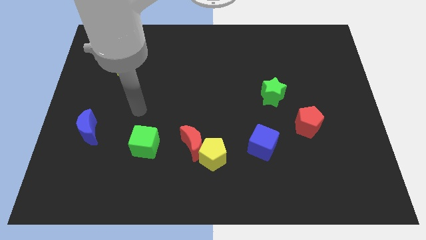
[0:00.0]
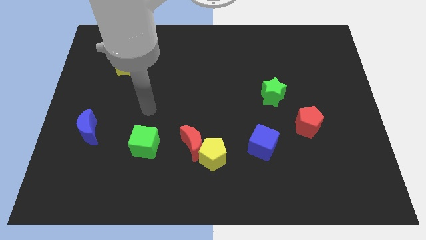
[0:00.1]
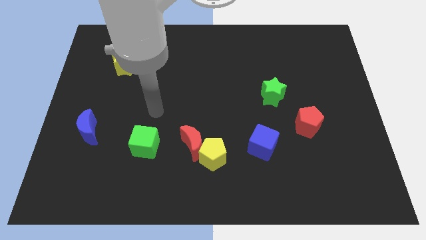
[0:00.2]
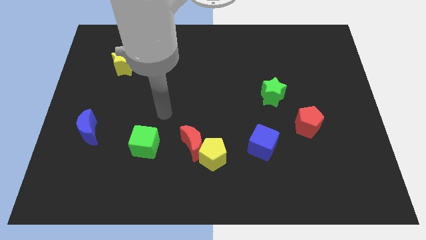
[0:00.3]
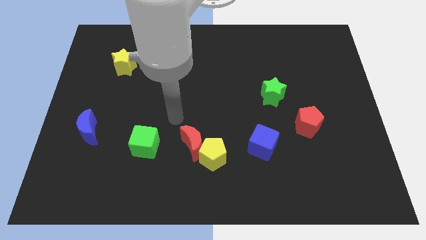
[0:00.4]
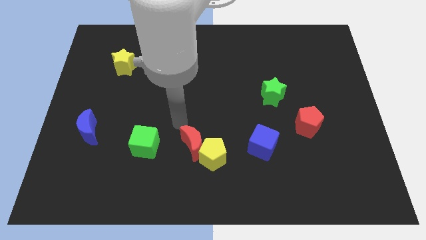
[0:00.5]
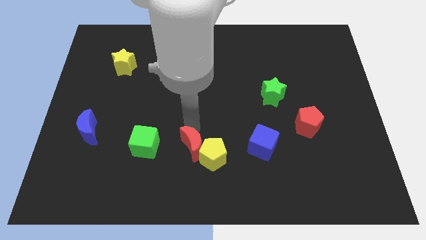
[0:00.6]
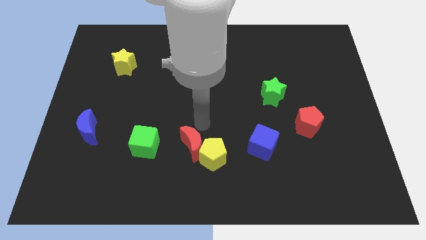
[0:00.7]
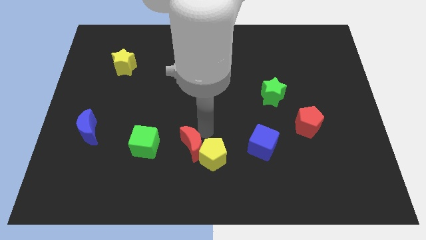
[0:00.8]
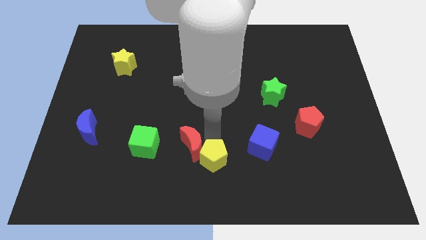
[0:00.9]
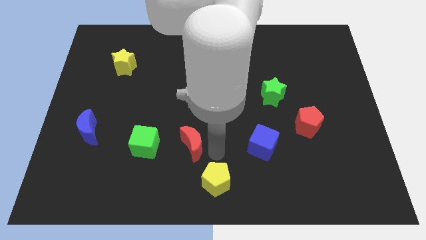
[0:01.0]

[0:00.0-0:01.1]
pull the red moon apart from the yellow pentagon

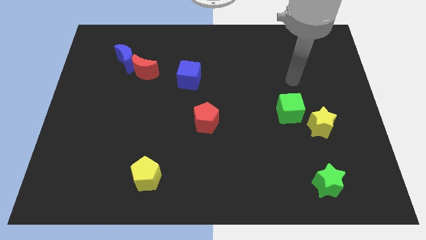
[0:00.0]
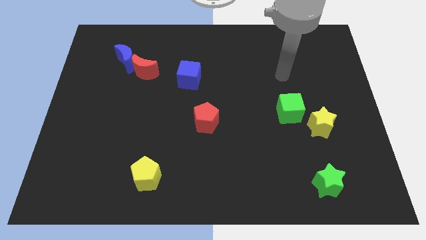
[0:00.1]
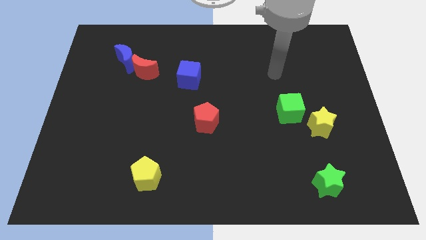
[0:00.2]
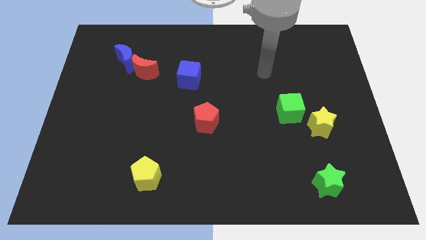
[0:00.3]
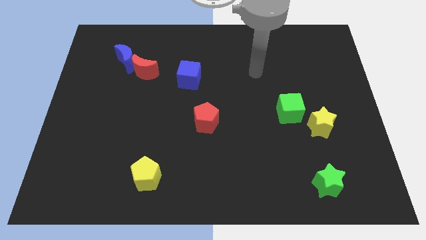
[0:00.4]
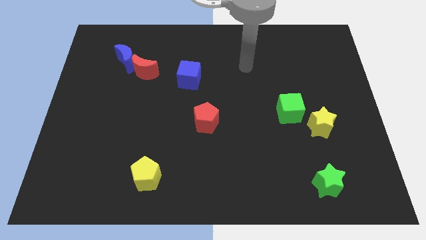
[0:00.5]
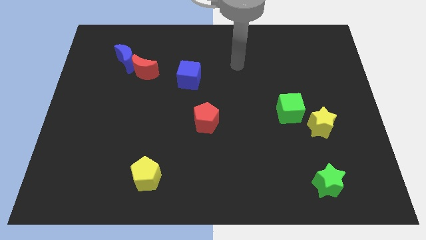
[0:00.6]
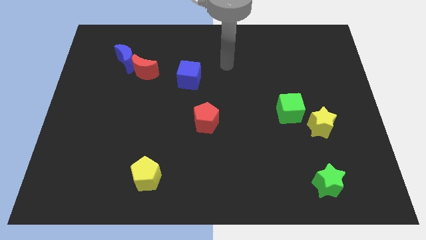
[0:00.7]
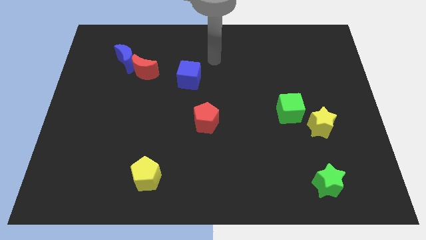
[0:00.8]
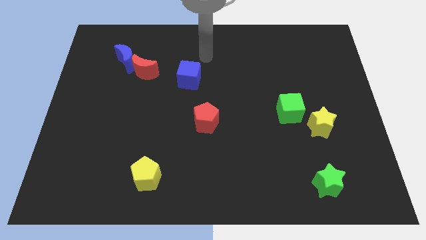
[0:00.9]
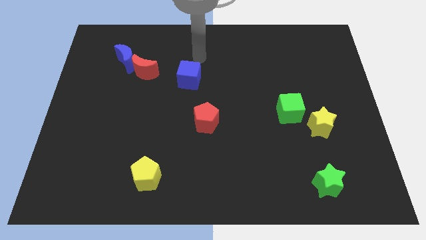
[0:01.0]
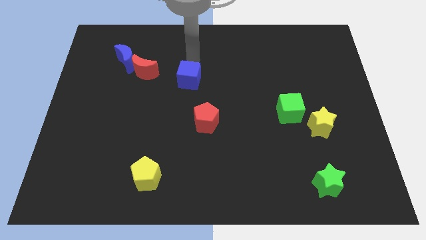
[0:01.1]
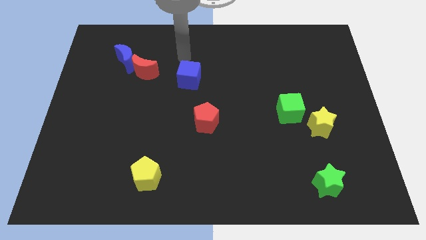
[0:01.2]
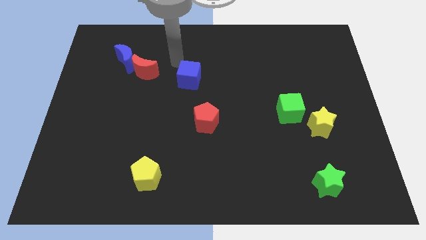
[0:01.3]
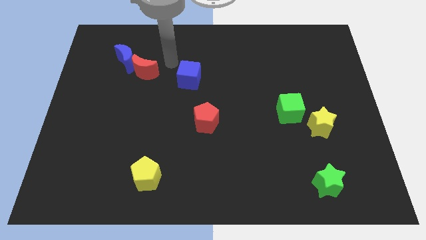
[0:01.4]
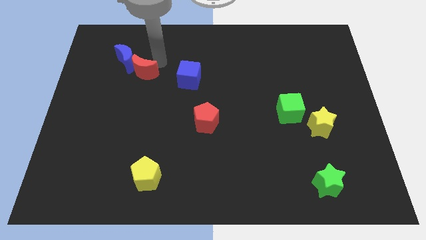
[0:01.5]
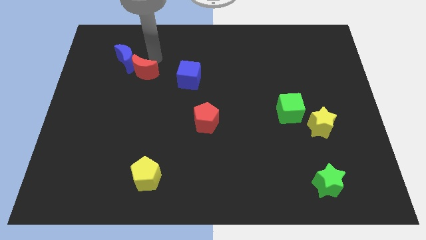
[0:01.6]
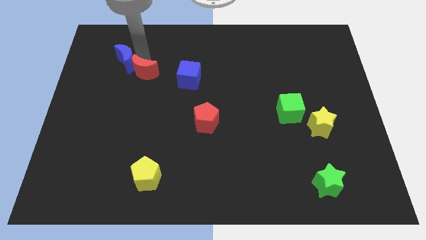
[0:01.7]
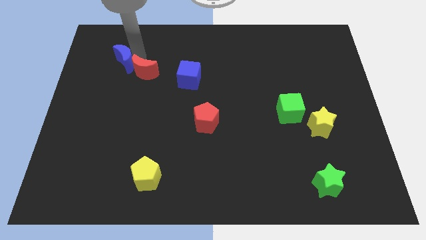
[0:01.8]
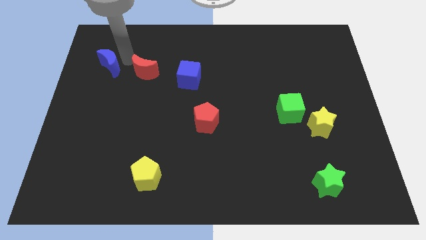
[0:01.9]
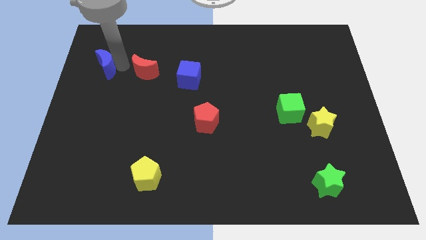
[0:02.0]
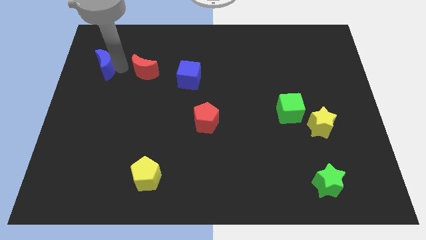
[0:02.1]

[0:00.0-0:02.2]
pull the red moon apart from the blue moon

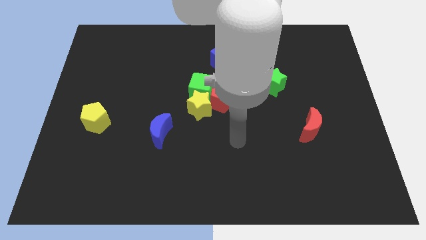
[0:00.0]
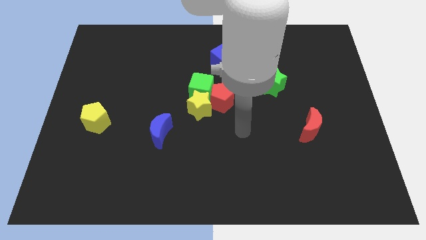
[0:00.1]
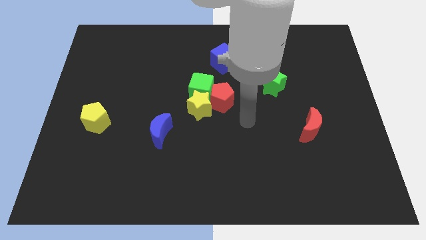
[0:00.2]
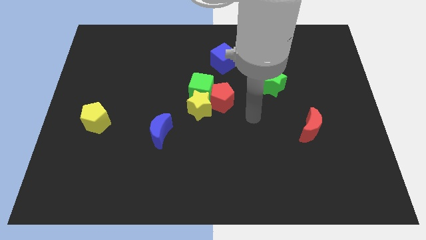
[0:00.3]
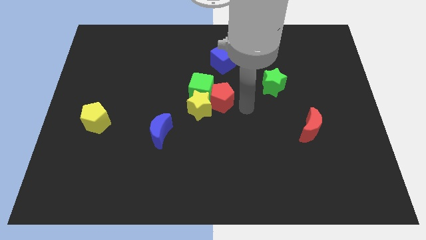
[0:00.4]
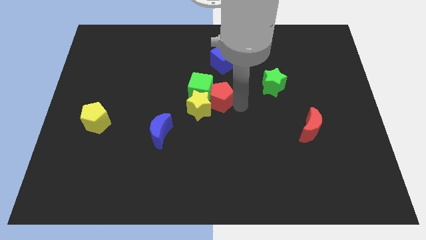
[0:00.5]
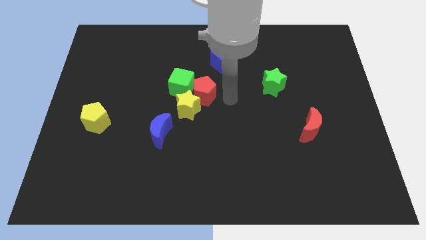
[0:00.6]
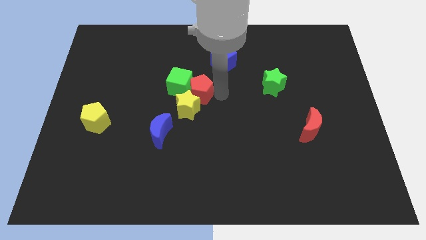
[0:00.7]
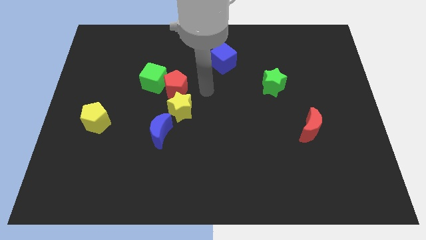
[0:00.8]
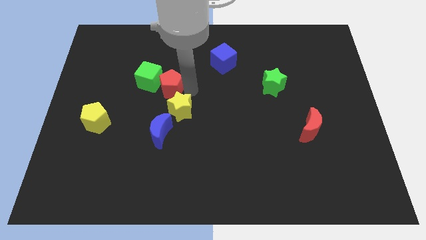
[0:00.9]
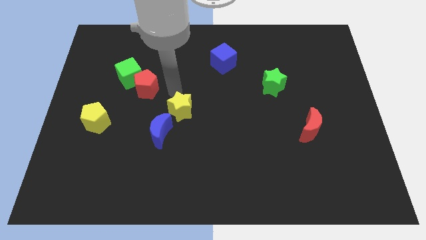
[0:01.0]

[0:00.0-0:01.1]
move the yellow star away from the green cube and red pentagon

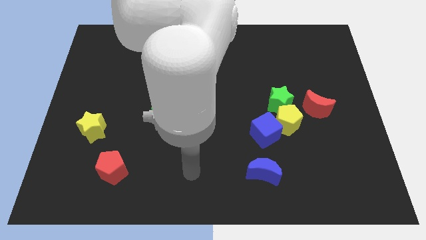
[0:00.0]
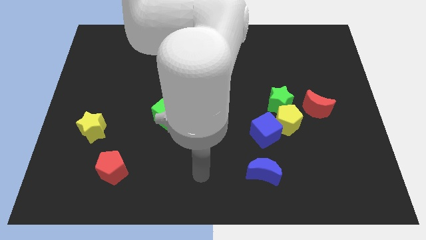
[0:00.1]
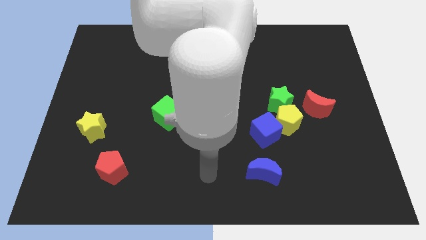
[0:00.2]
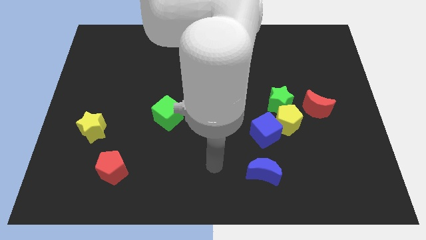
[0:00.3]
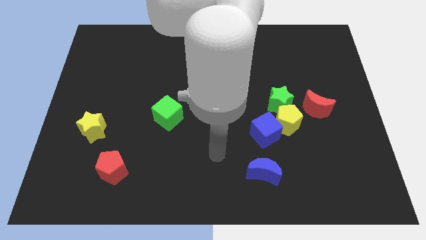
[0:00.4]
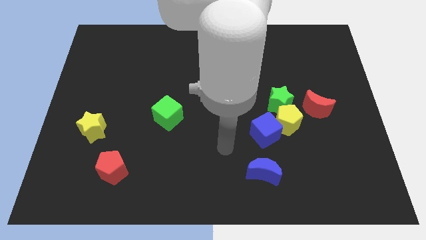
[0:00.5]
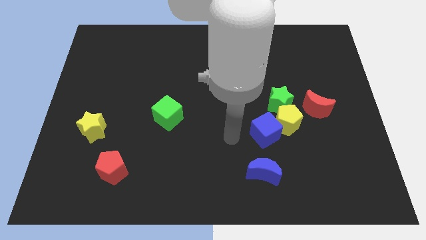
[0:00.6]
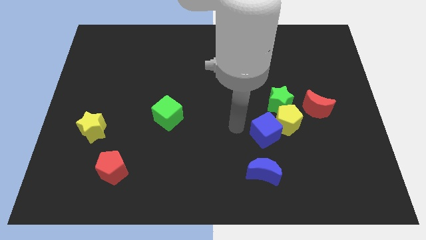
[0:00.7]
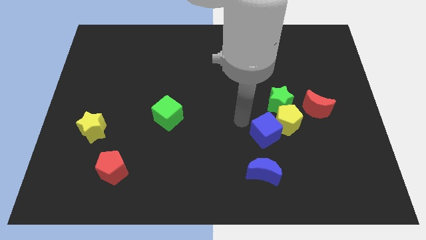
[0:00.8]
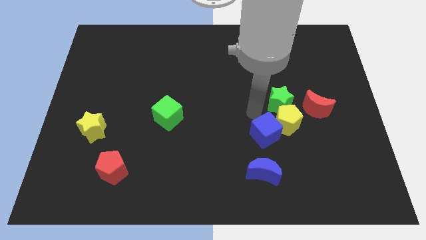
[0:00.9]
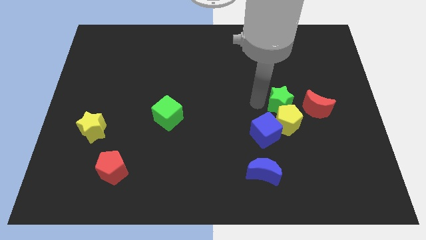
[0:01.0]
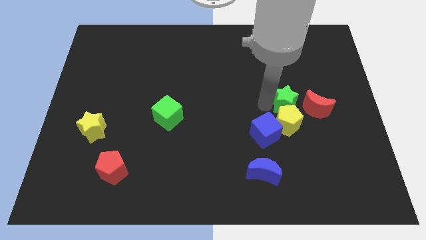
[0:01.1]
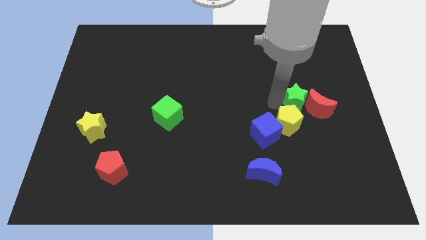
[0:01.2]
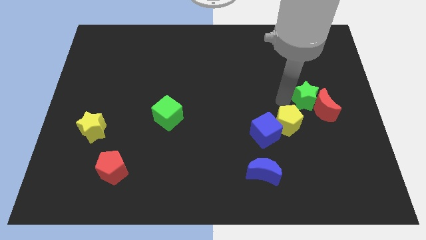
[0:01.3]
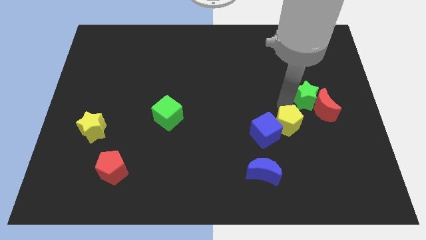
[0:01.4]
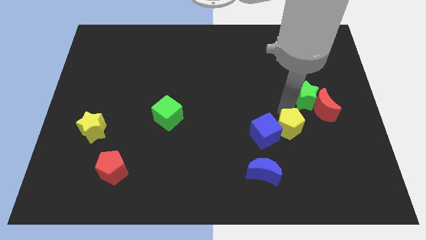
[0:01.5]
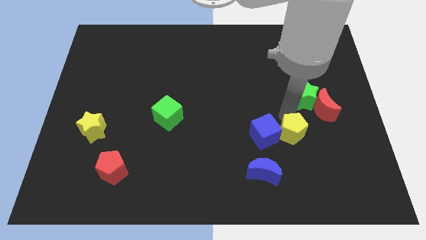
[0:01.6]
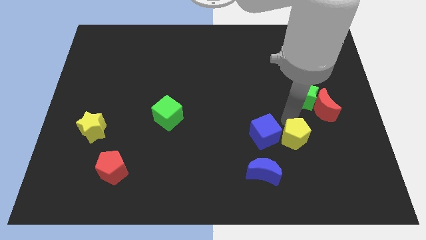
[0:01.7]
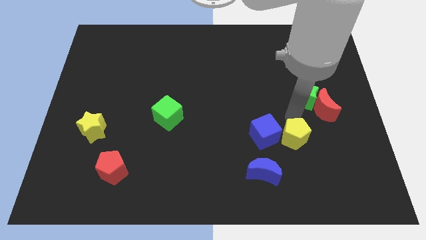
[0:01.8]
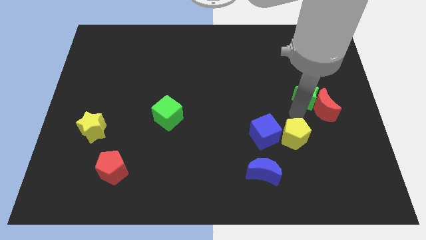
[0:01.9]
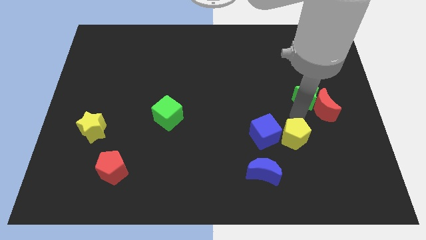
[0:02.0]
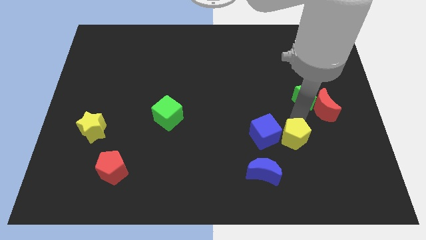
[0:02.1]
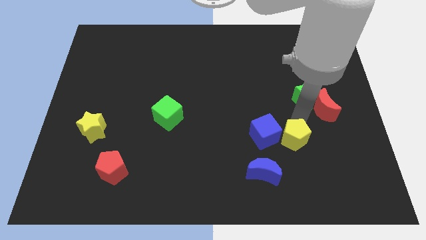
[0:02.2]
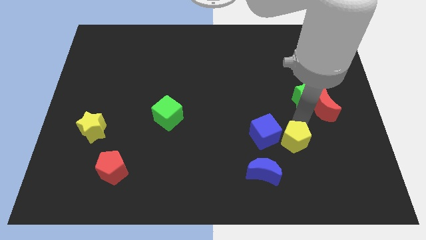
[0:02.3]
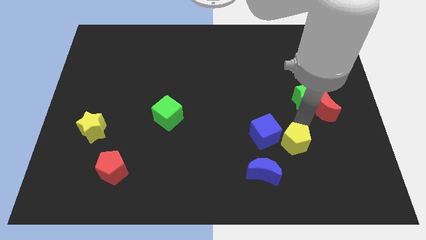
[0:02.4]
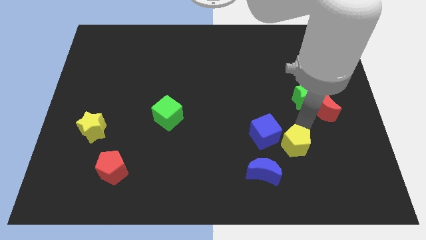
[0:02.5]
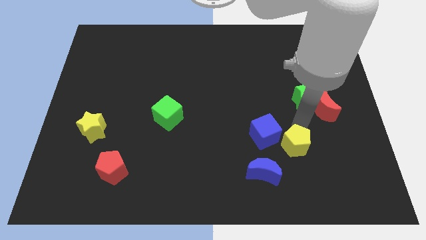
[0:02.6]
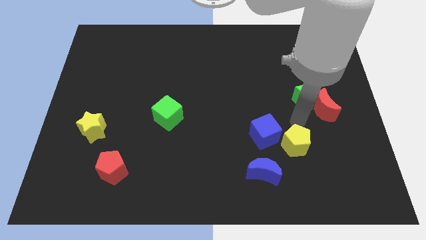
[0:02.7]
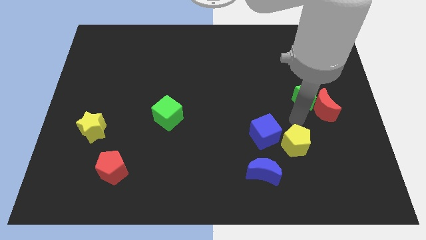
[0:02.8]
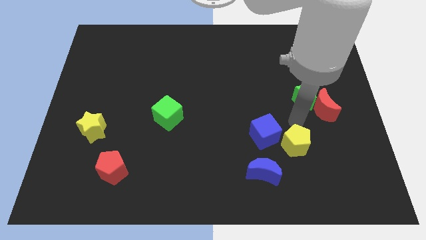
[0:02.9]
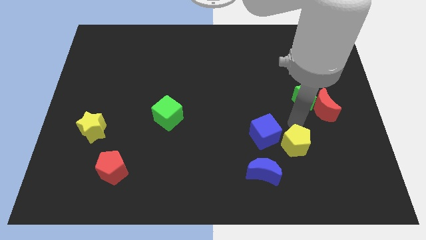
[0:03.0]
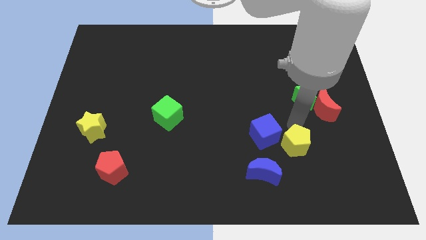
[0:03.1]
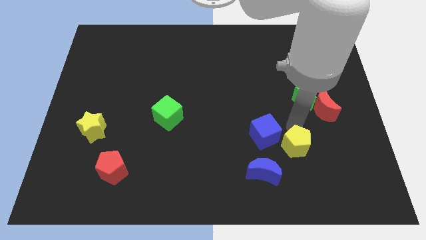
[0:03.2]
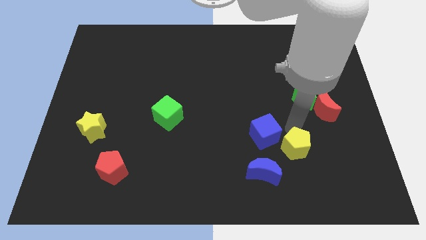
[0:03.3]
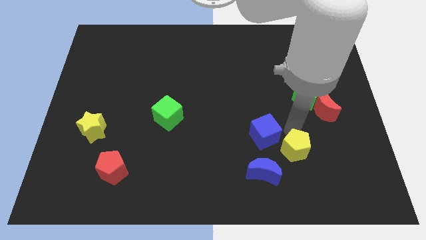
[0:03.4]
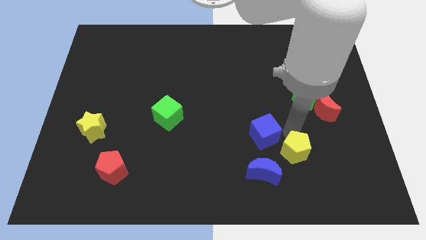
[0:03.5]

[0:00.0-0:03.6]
pull the yellow pentagon apart from the group of blocks

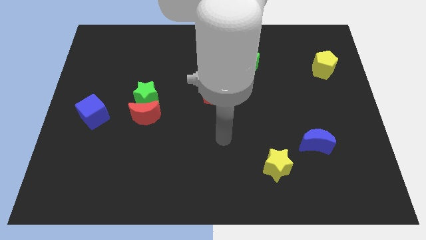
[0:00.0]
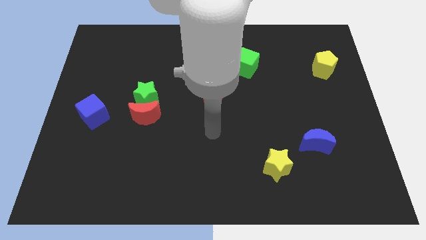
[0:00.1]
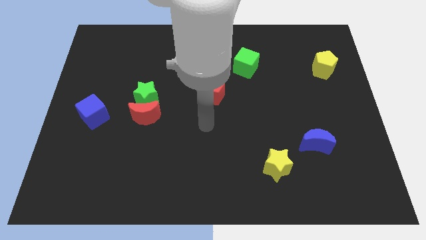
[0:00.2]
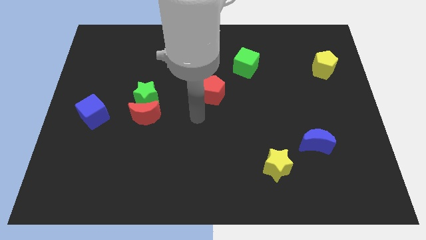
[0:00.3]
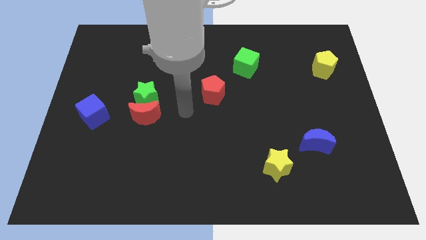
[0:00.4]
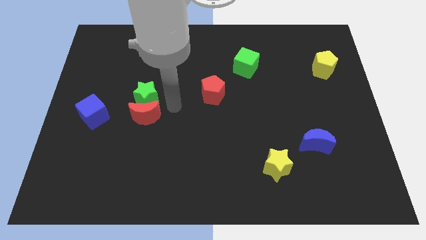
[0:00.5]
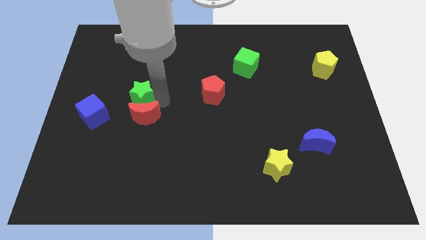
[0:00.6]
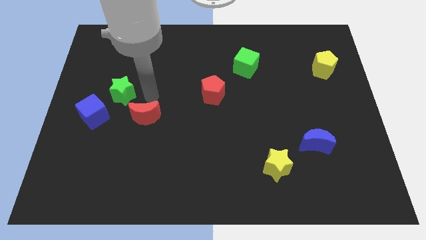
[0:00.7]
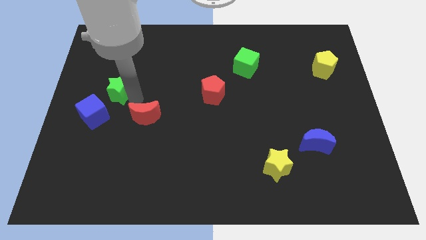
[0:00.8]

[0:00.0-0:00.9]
separate the red moon from the green star

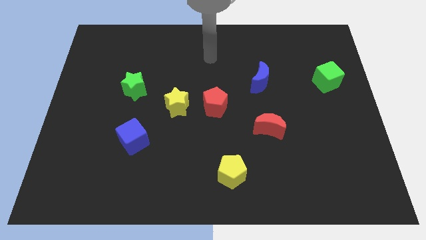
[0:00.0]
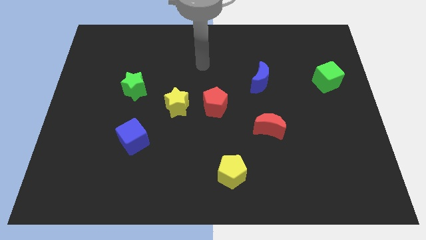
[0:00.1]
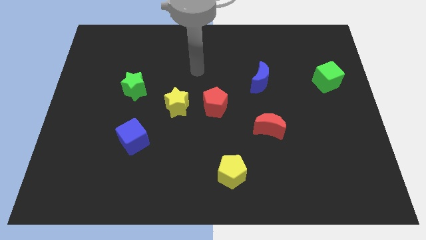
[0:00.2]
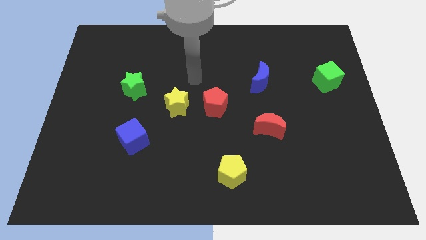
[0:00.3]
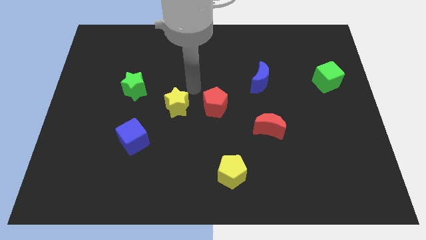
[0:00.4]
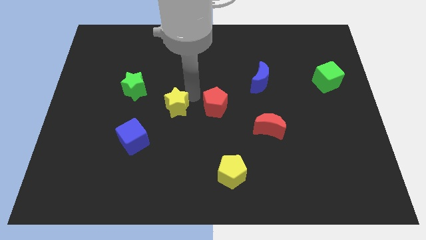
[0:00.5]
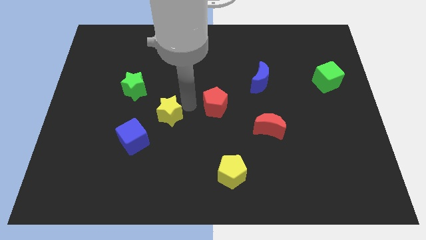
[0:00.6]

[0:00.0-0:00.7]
separate the red pentagon from the yellow star
